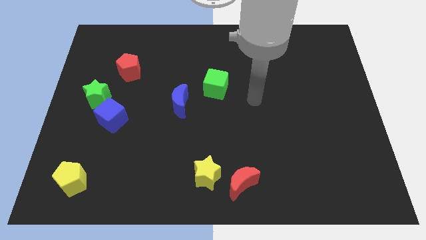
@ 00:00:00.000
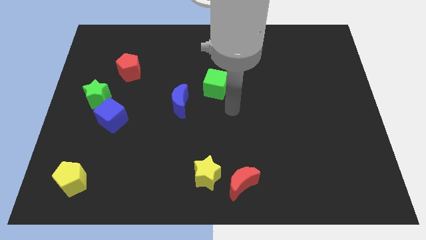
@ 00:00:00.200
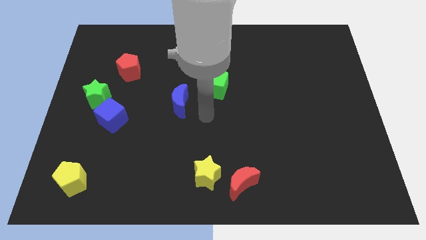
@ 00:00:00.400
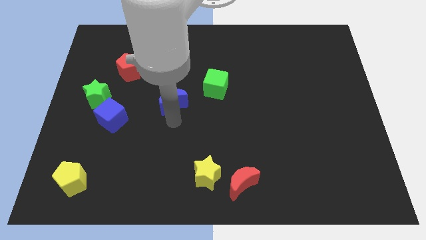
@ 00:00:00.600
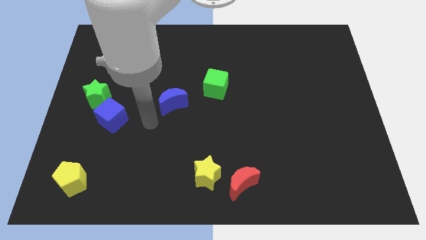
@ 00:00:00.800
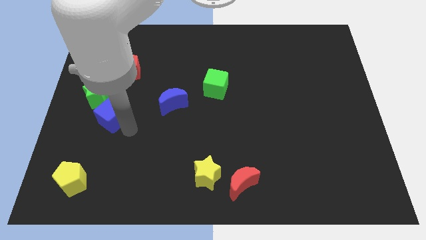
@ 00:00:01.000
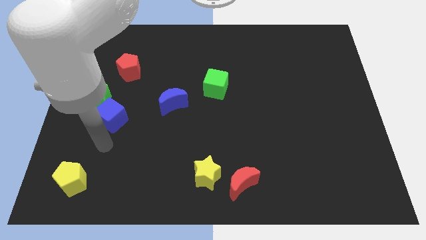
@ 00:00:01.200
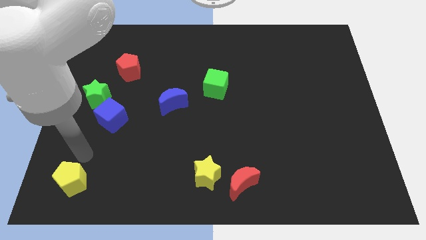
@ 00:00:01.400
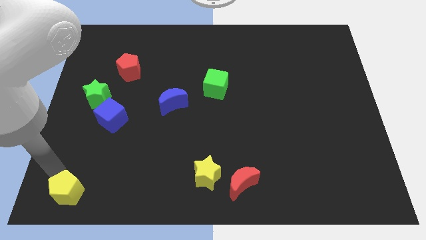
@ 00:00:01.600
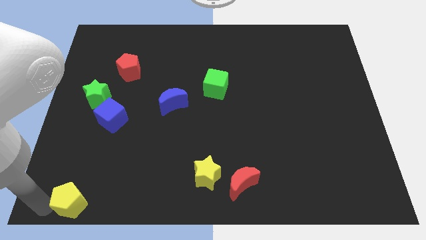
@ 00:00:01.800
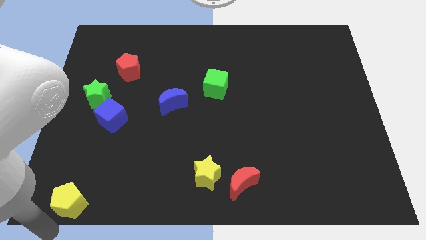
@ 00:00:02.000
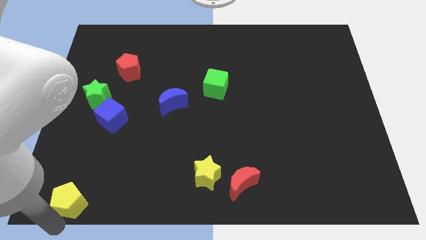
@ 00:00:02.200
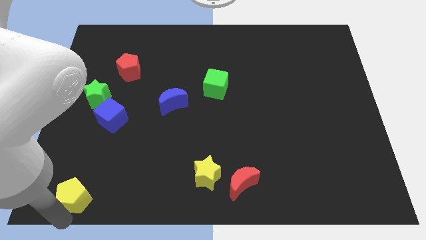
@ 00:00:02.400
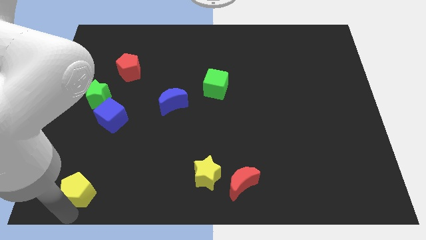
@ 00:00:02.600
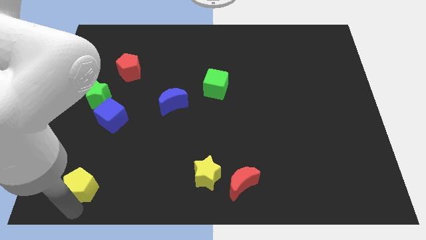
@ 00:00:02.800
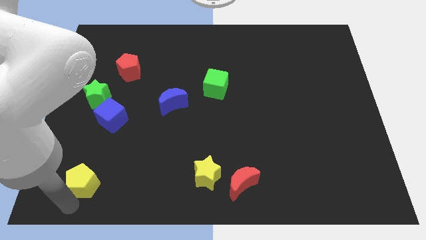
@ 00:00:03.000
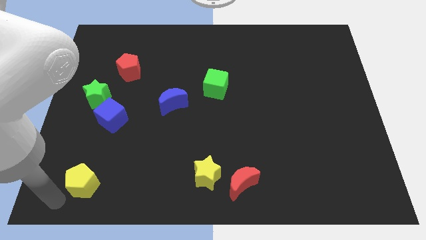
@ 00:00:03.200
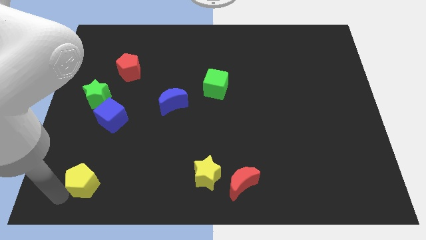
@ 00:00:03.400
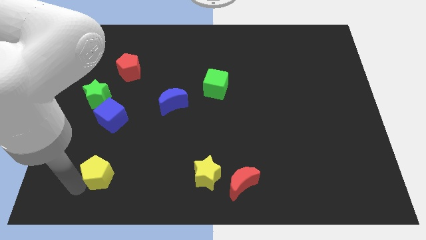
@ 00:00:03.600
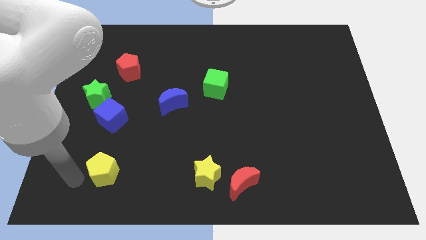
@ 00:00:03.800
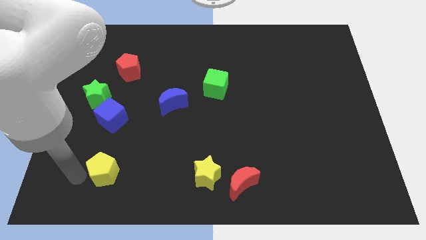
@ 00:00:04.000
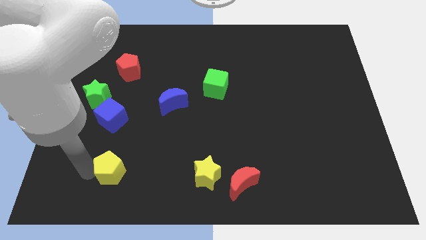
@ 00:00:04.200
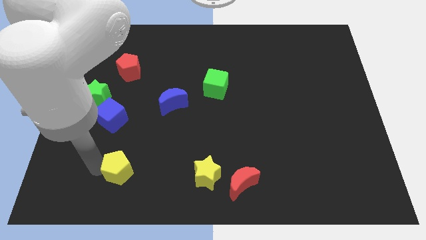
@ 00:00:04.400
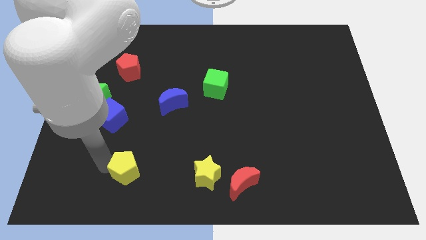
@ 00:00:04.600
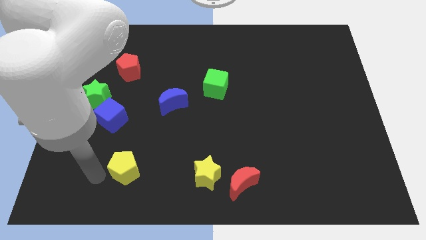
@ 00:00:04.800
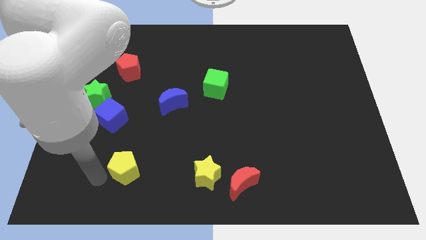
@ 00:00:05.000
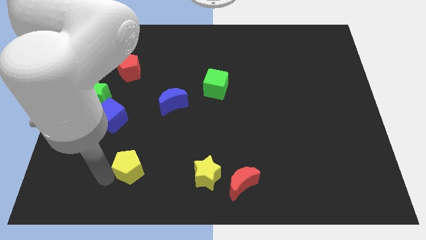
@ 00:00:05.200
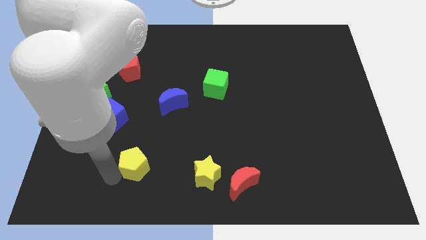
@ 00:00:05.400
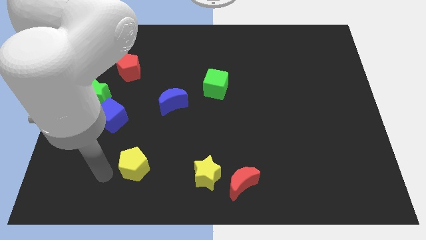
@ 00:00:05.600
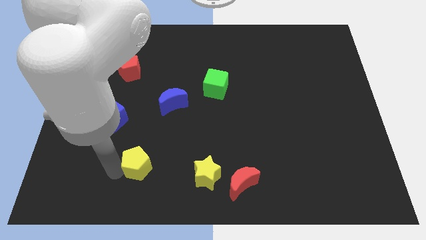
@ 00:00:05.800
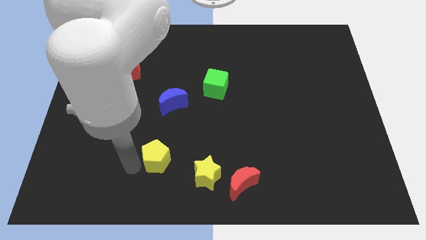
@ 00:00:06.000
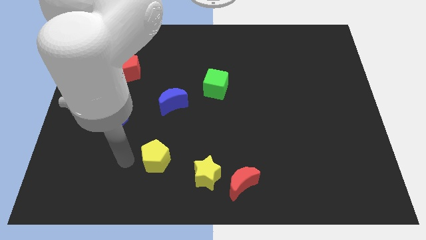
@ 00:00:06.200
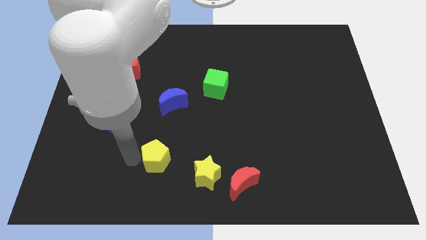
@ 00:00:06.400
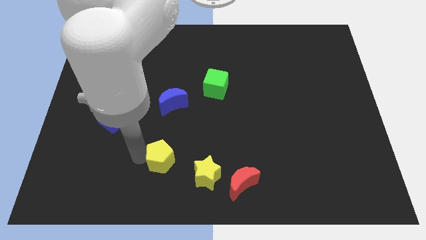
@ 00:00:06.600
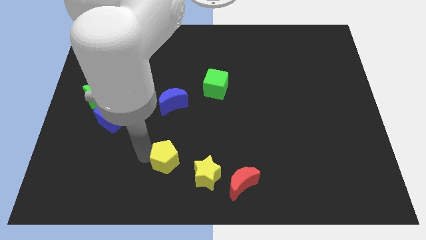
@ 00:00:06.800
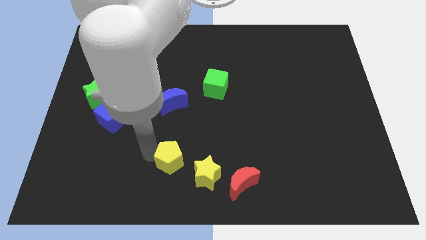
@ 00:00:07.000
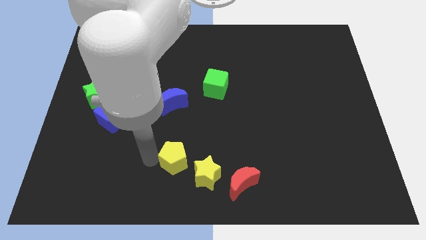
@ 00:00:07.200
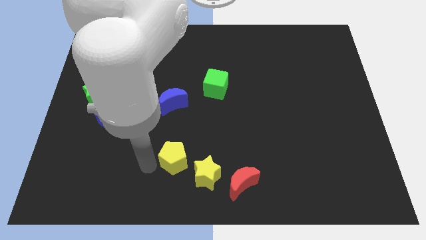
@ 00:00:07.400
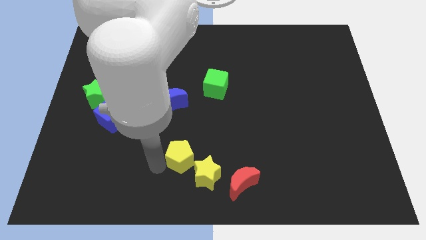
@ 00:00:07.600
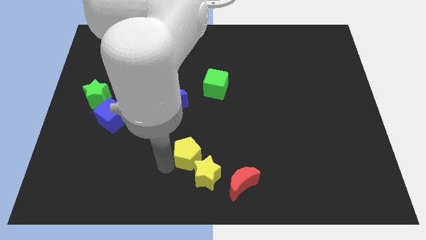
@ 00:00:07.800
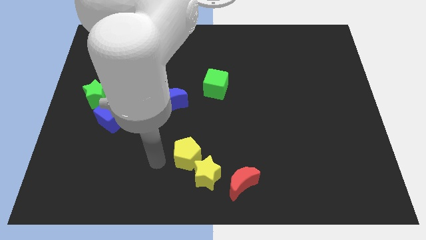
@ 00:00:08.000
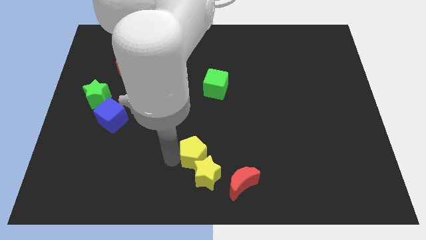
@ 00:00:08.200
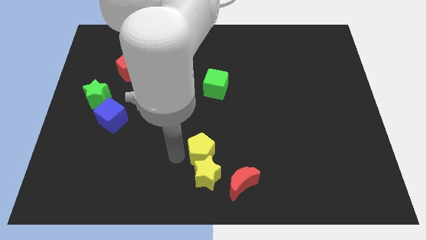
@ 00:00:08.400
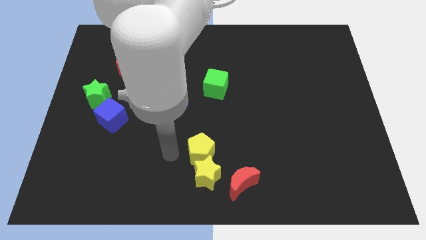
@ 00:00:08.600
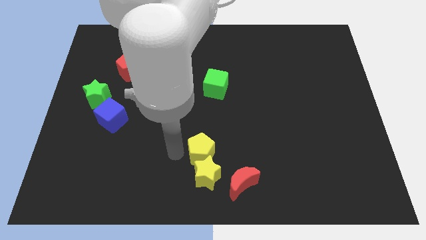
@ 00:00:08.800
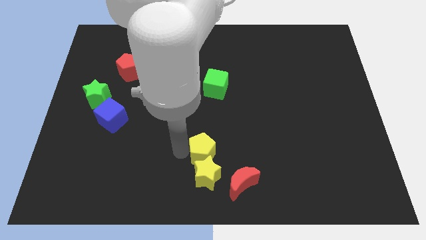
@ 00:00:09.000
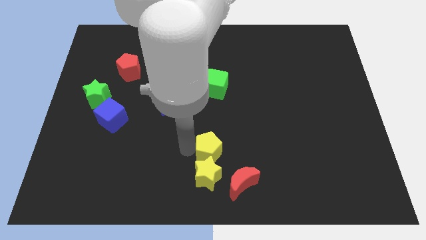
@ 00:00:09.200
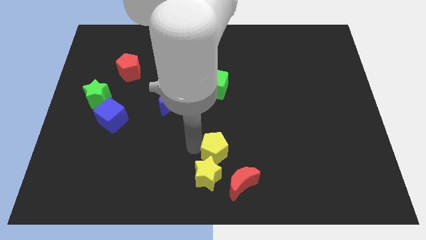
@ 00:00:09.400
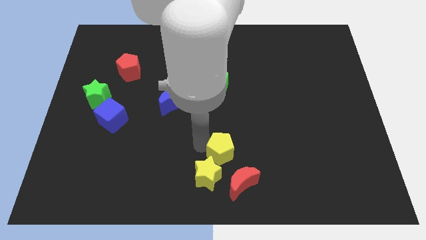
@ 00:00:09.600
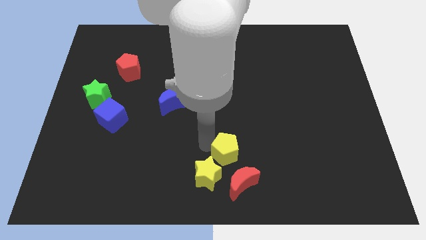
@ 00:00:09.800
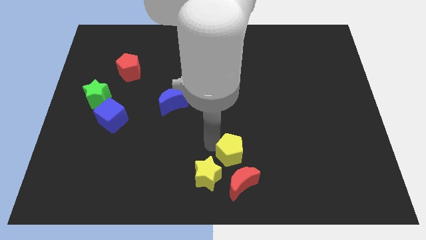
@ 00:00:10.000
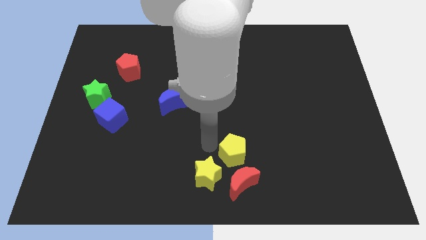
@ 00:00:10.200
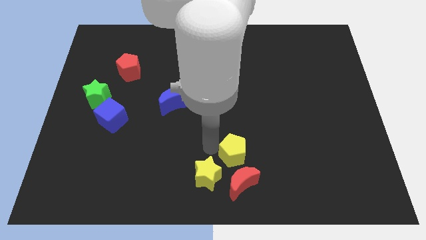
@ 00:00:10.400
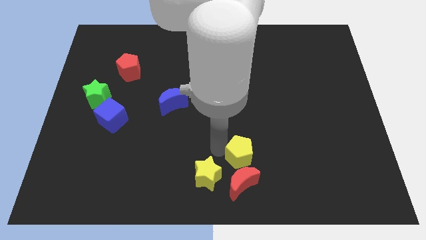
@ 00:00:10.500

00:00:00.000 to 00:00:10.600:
slide the yellow pentagon to the top right of the red moon

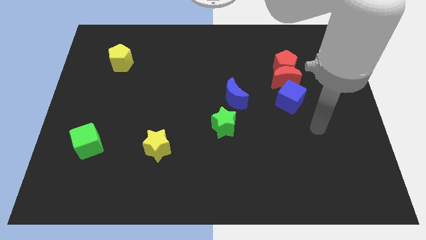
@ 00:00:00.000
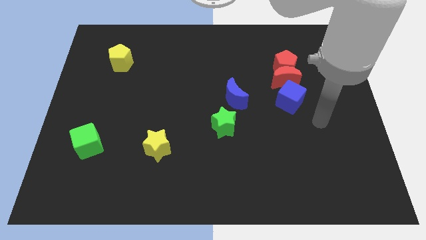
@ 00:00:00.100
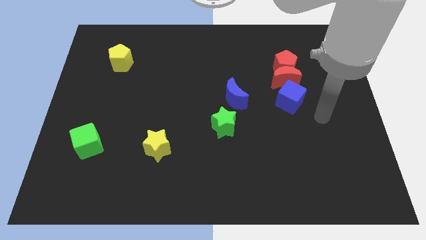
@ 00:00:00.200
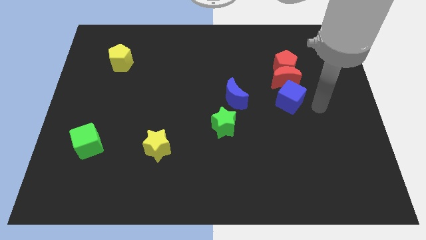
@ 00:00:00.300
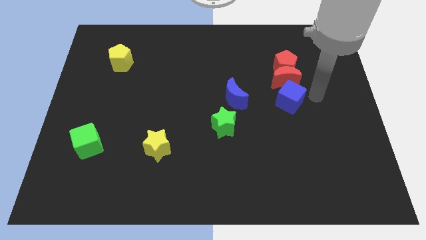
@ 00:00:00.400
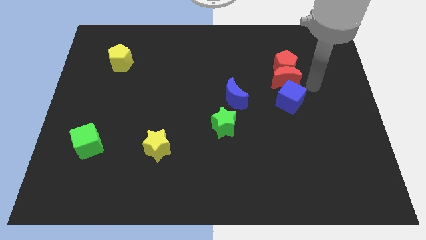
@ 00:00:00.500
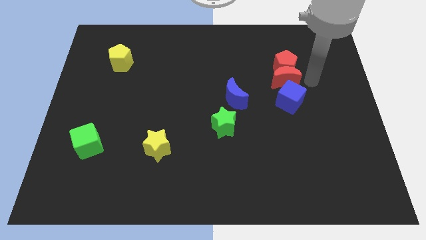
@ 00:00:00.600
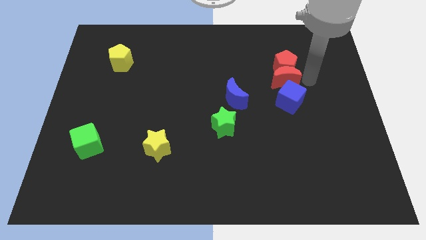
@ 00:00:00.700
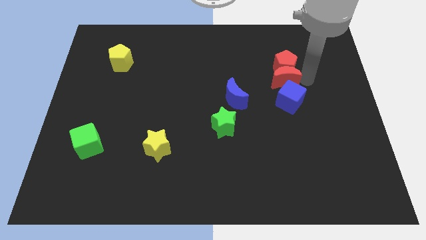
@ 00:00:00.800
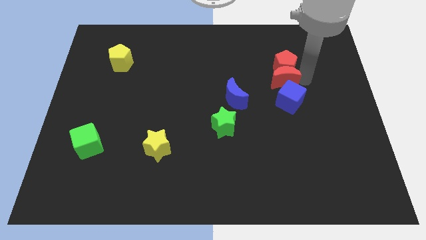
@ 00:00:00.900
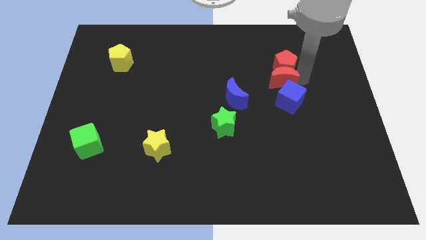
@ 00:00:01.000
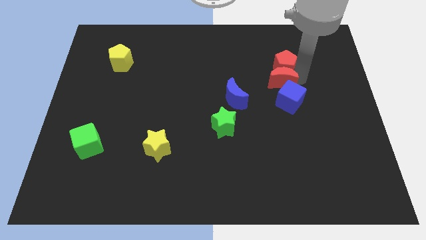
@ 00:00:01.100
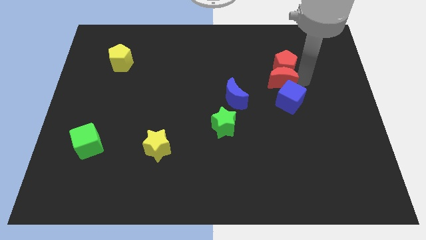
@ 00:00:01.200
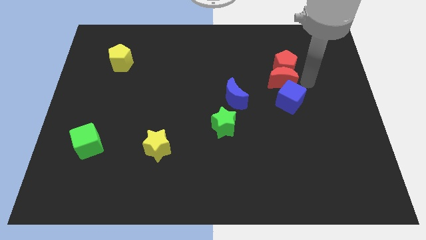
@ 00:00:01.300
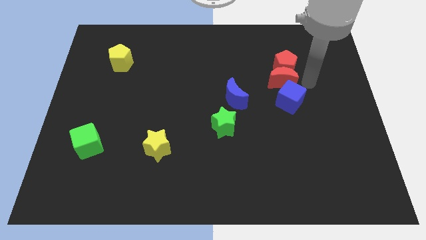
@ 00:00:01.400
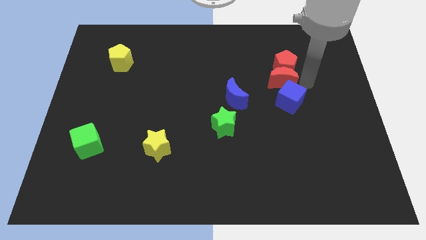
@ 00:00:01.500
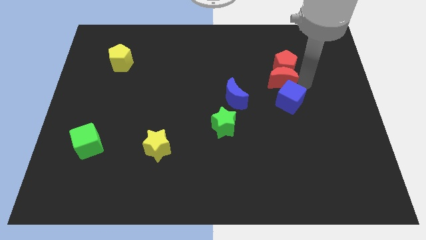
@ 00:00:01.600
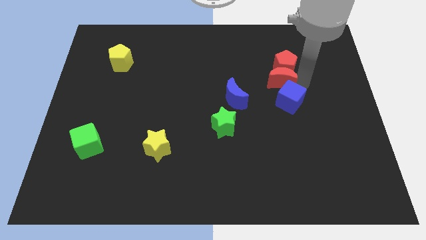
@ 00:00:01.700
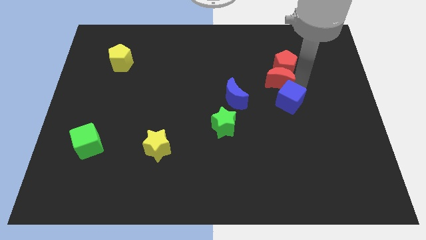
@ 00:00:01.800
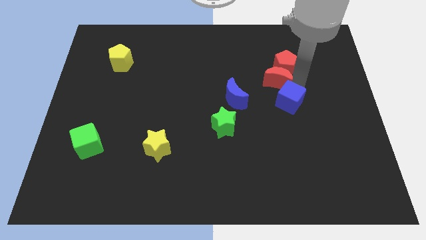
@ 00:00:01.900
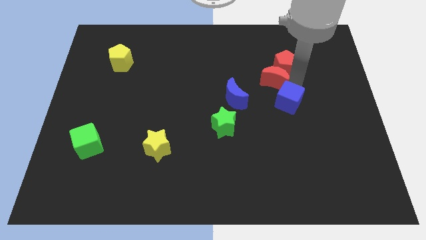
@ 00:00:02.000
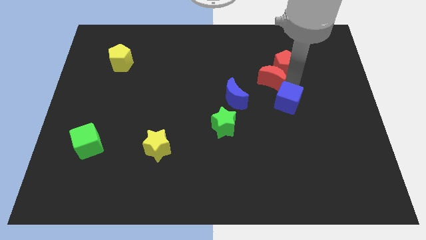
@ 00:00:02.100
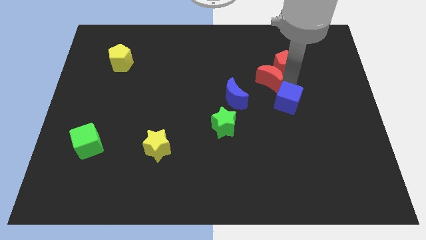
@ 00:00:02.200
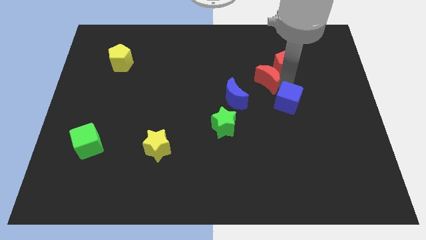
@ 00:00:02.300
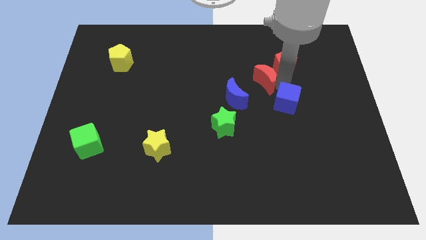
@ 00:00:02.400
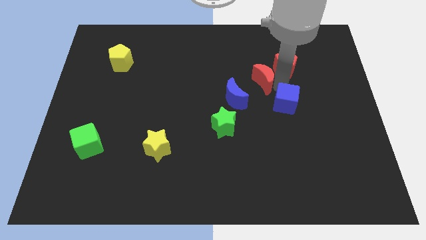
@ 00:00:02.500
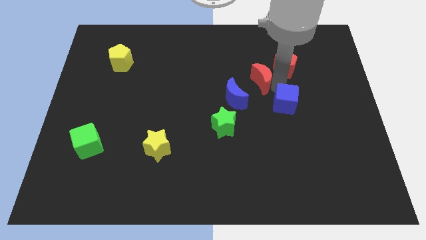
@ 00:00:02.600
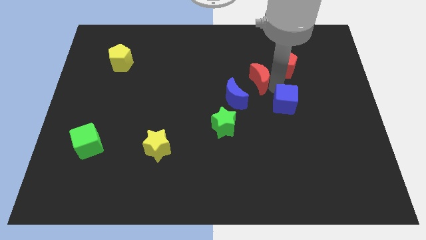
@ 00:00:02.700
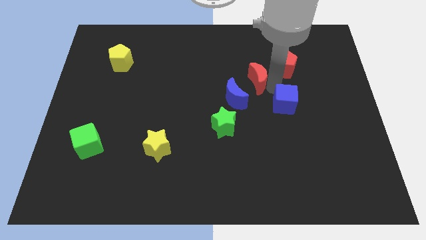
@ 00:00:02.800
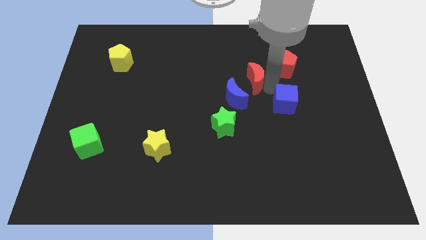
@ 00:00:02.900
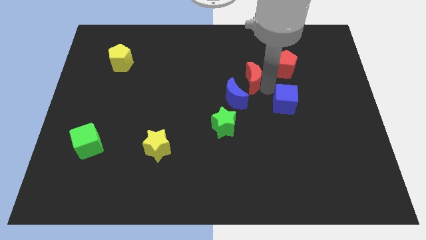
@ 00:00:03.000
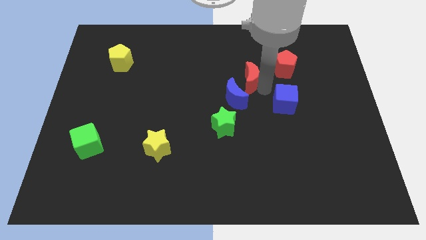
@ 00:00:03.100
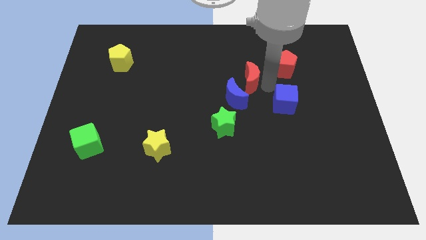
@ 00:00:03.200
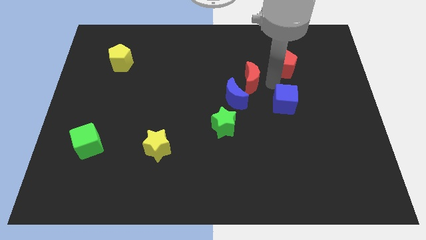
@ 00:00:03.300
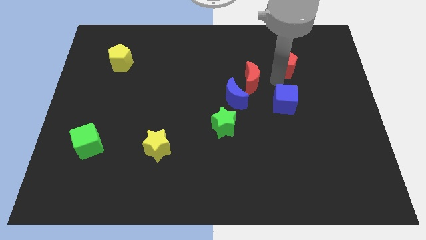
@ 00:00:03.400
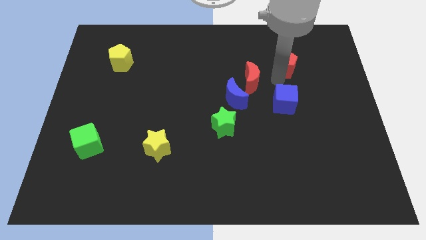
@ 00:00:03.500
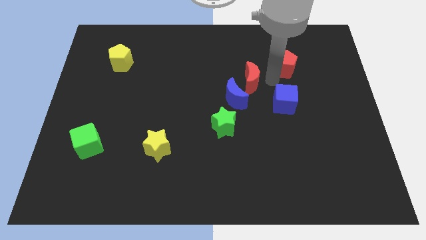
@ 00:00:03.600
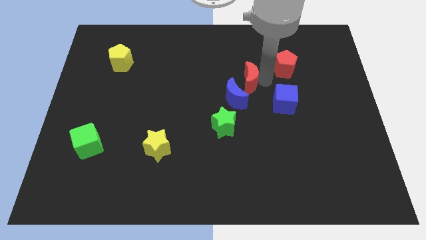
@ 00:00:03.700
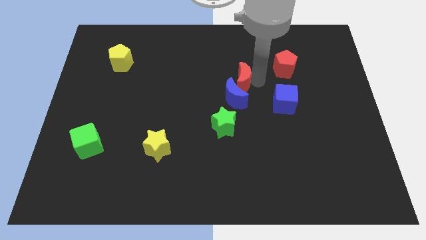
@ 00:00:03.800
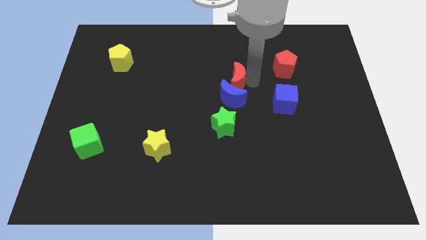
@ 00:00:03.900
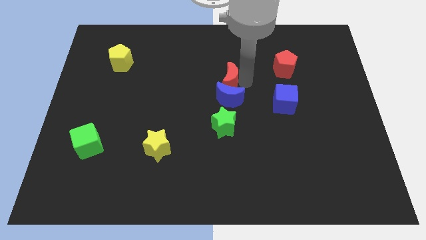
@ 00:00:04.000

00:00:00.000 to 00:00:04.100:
move the red moon to the top left of the blue moon
